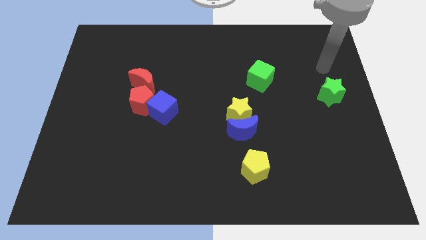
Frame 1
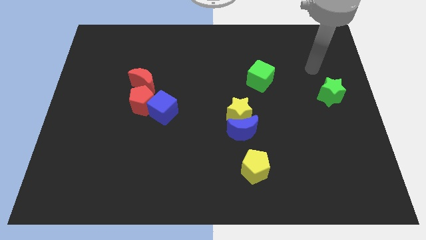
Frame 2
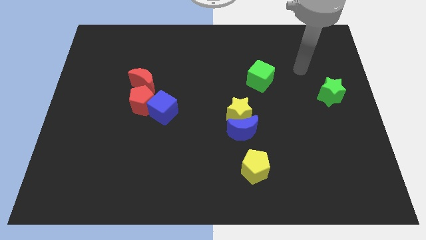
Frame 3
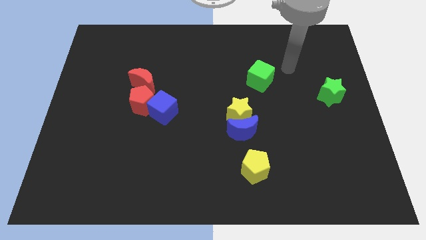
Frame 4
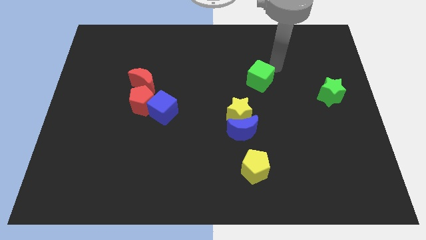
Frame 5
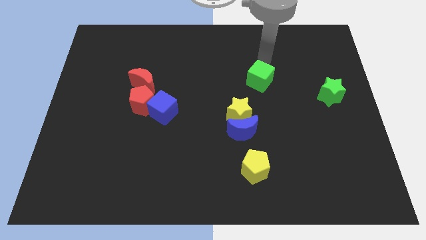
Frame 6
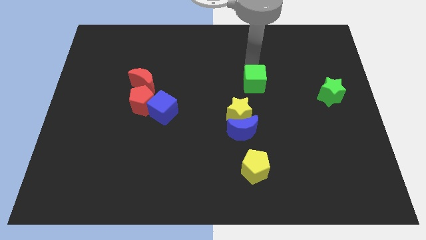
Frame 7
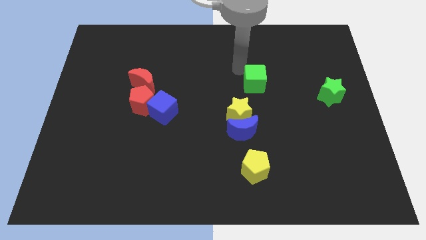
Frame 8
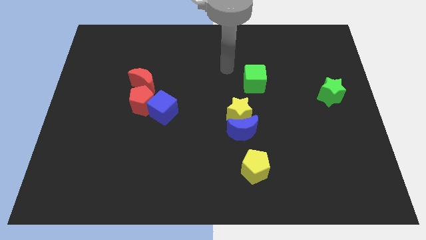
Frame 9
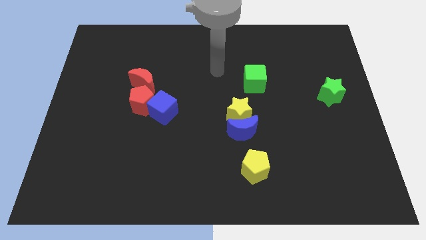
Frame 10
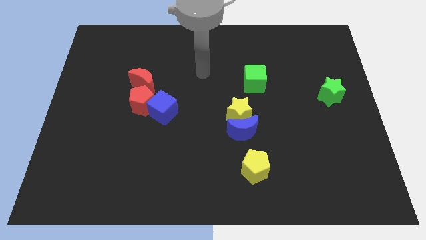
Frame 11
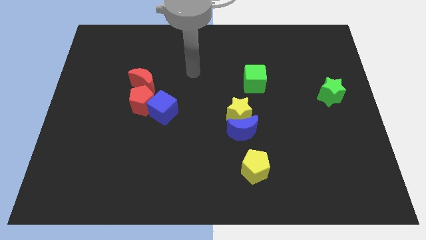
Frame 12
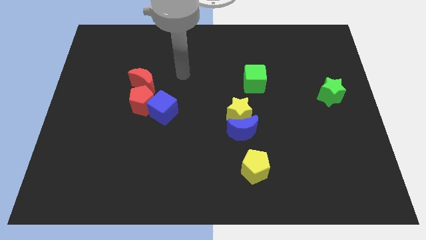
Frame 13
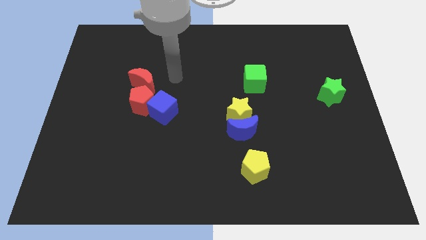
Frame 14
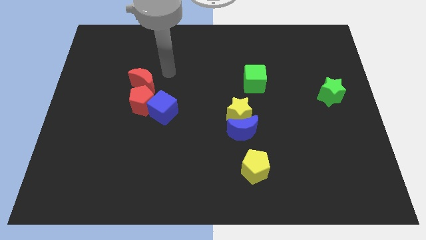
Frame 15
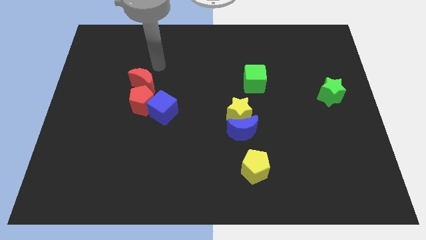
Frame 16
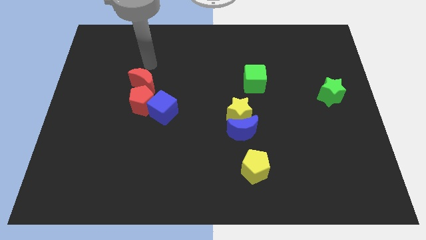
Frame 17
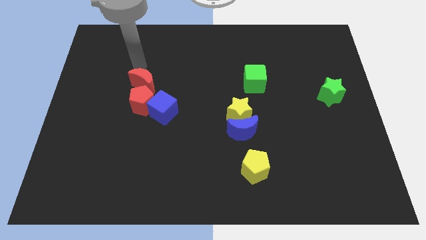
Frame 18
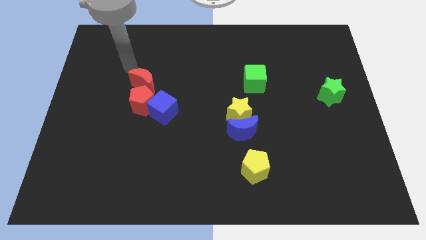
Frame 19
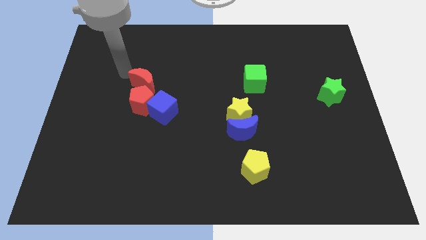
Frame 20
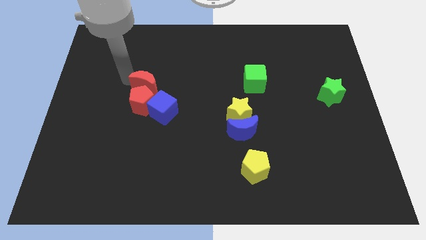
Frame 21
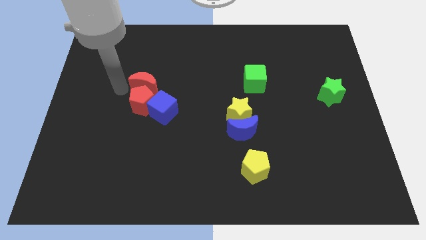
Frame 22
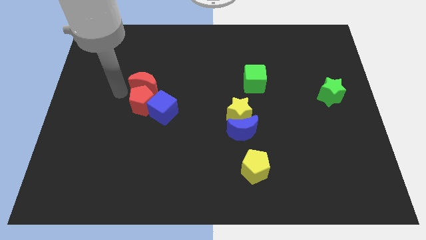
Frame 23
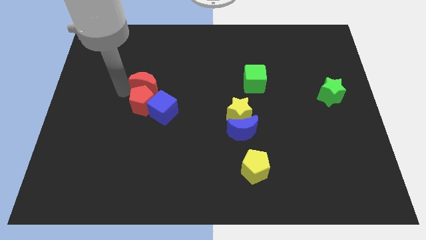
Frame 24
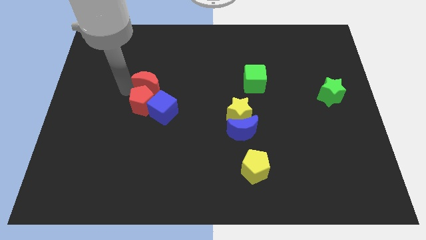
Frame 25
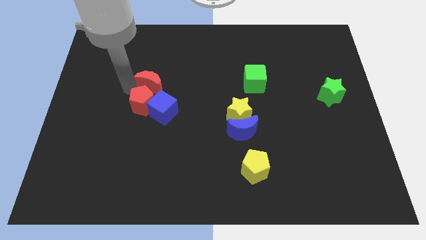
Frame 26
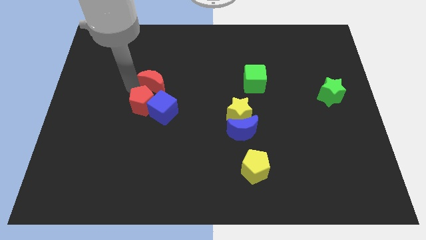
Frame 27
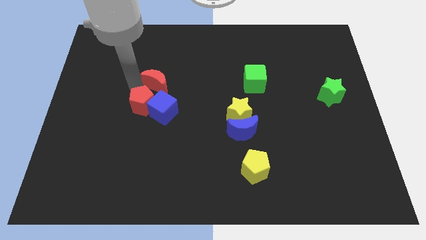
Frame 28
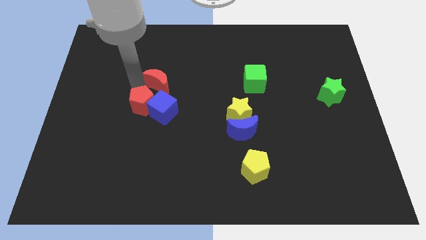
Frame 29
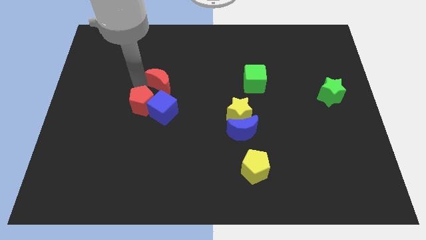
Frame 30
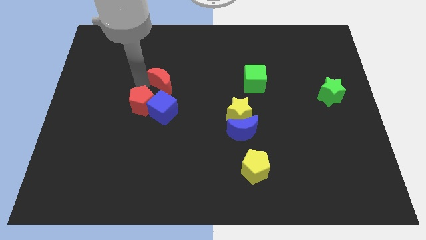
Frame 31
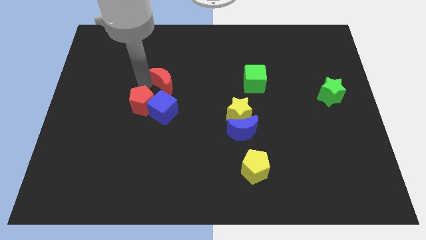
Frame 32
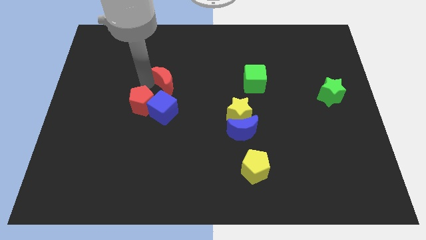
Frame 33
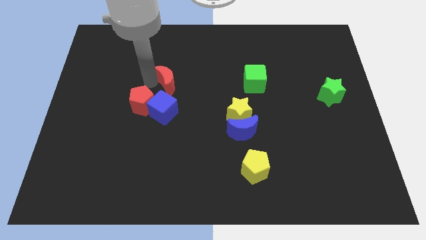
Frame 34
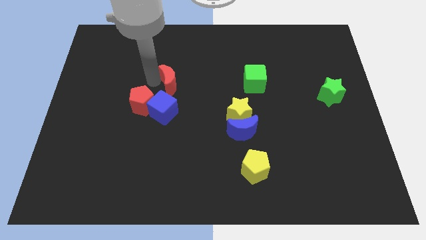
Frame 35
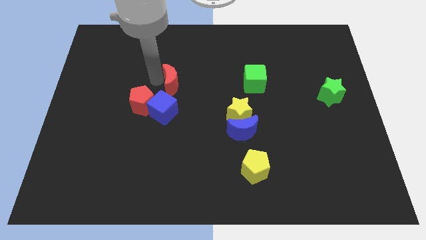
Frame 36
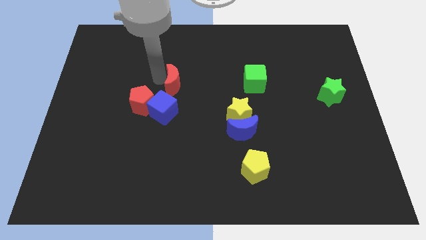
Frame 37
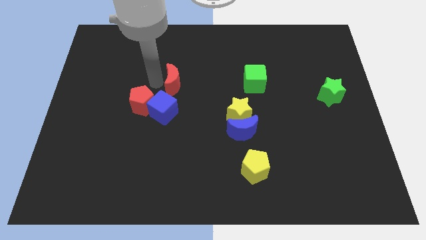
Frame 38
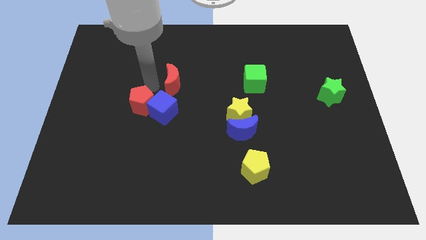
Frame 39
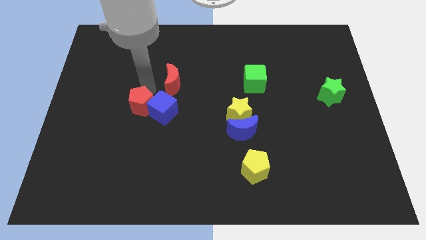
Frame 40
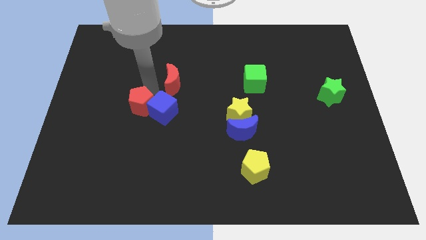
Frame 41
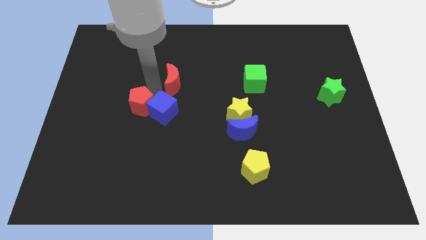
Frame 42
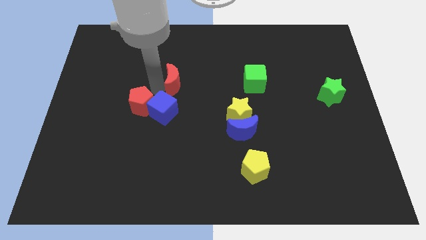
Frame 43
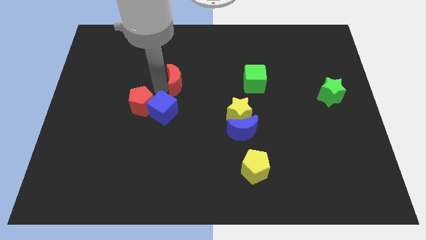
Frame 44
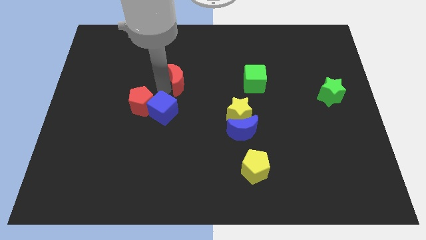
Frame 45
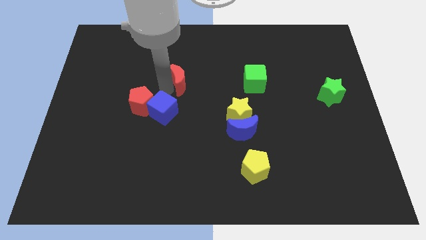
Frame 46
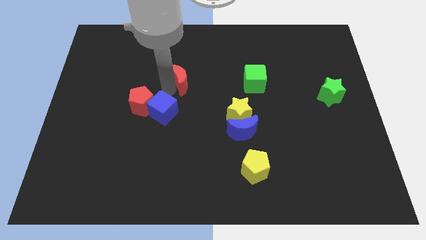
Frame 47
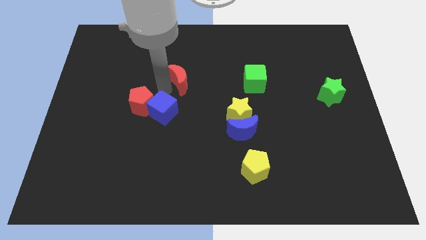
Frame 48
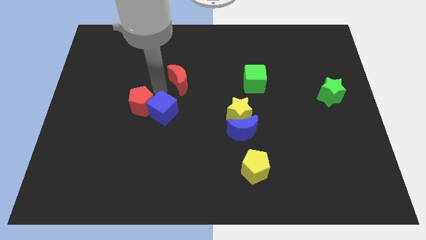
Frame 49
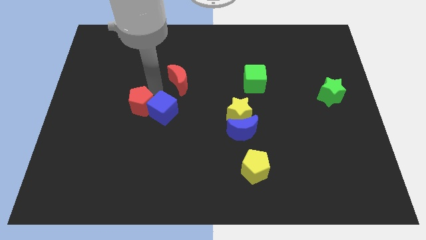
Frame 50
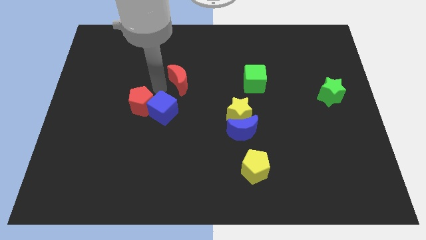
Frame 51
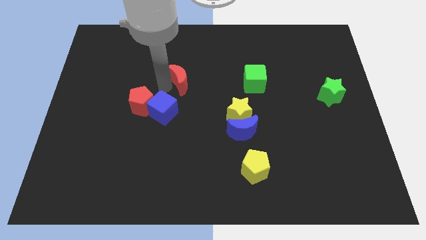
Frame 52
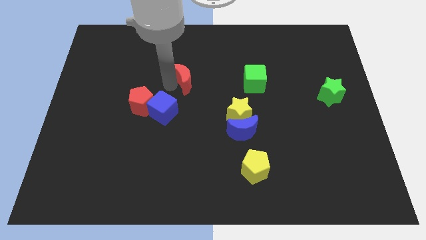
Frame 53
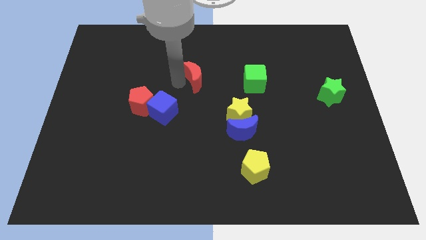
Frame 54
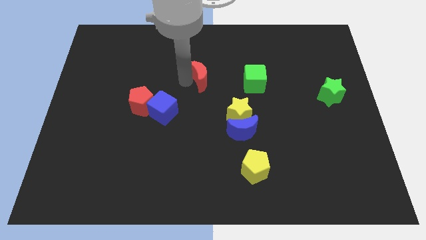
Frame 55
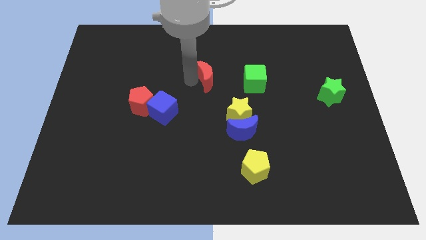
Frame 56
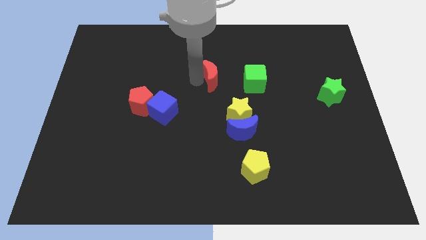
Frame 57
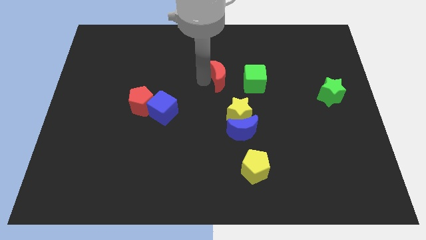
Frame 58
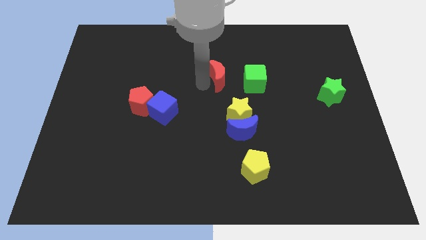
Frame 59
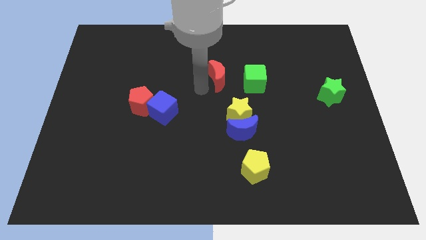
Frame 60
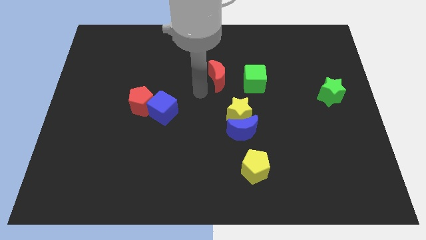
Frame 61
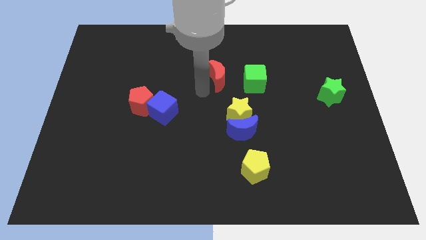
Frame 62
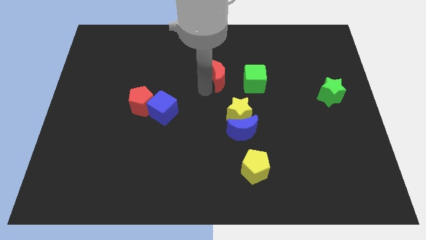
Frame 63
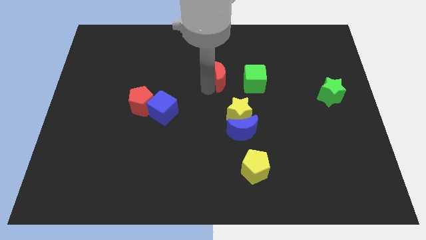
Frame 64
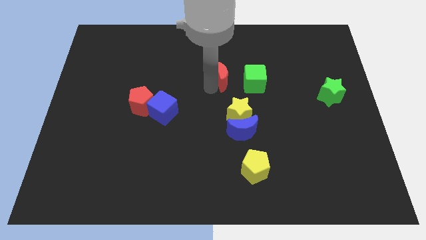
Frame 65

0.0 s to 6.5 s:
push the red moon to the top left side of the green cube

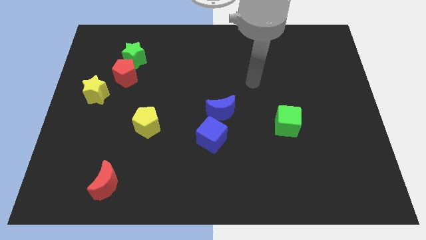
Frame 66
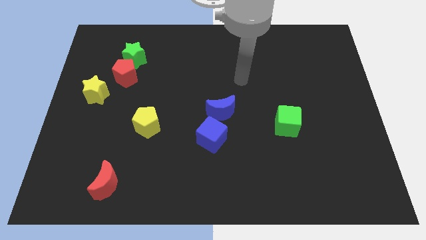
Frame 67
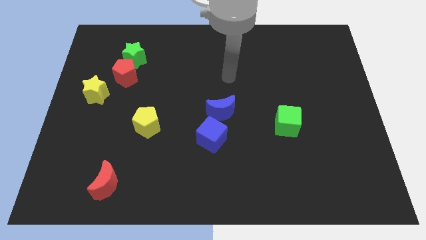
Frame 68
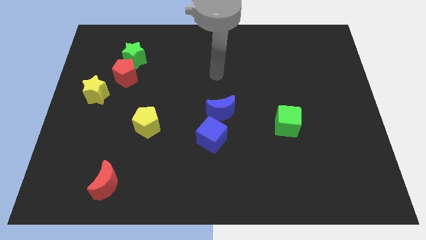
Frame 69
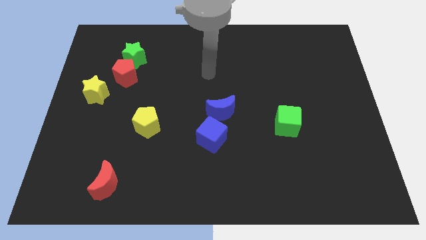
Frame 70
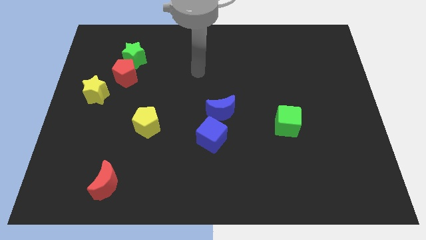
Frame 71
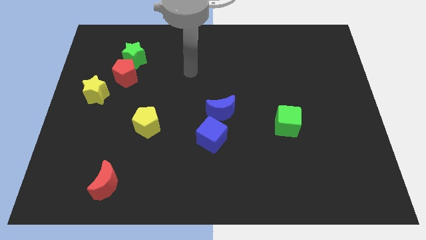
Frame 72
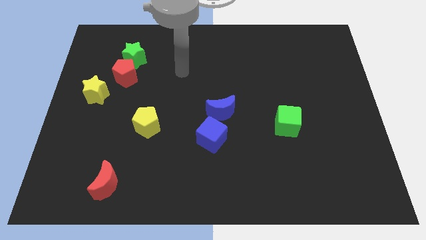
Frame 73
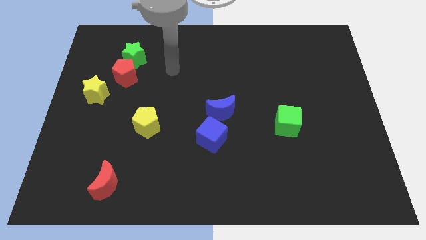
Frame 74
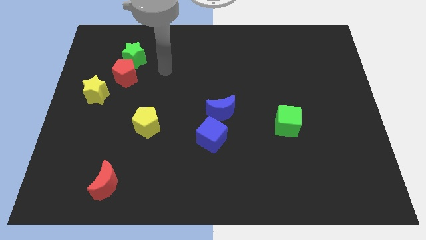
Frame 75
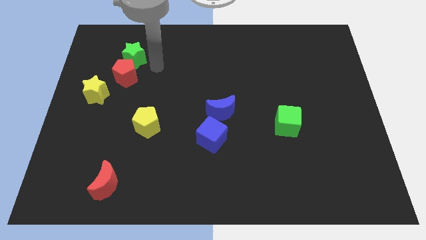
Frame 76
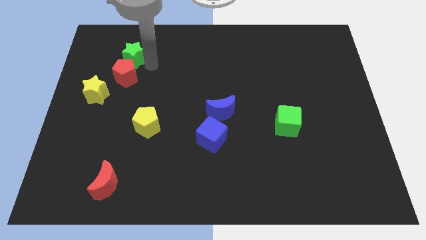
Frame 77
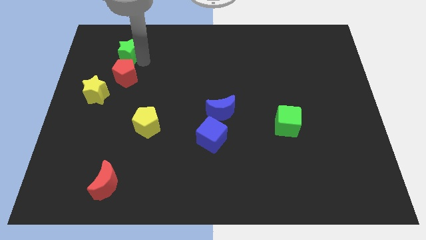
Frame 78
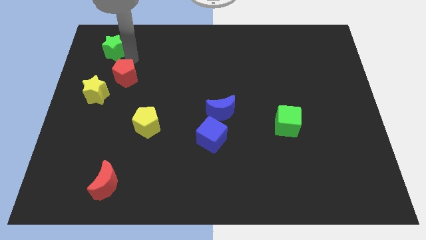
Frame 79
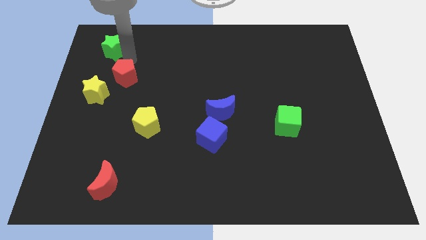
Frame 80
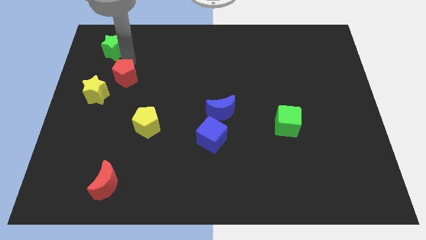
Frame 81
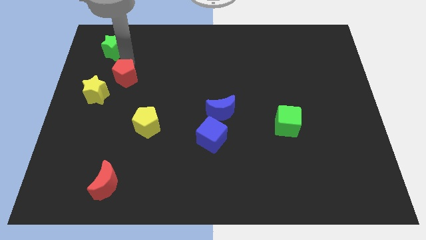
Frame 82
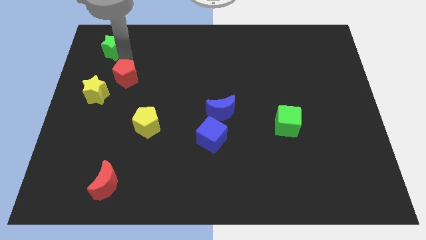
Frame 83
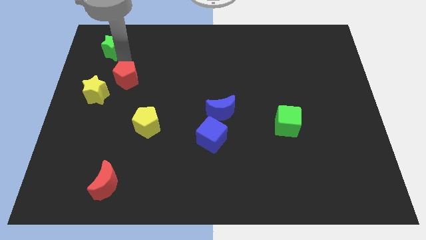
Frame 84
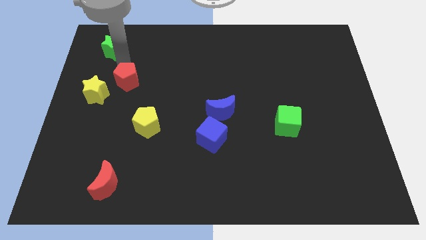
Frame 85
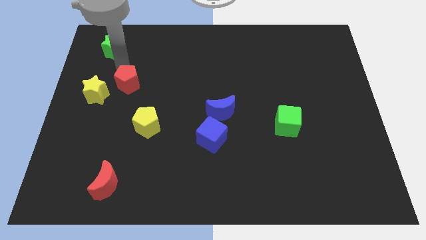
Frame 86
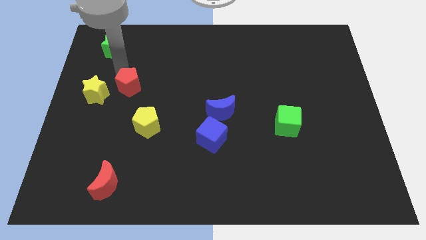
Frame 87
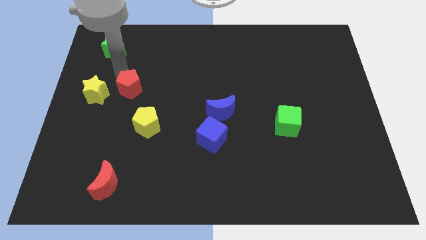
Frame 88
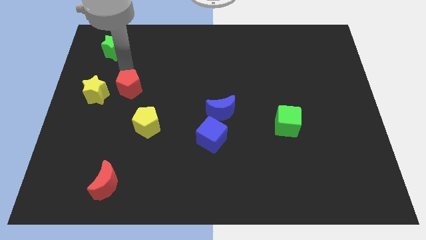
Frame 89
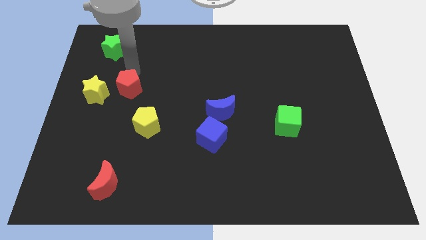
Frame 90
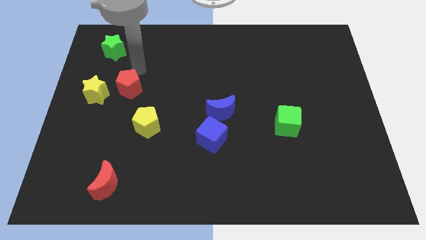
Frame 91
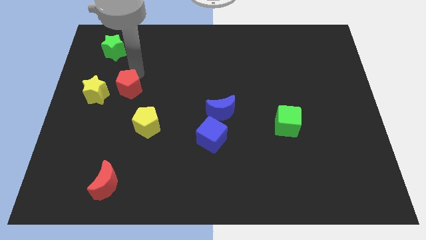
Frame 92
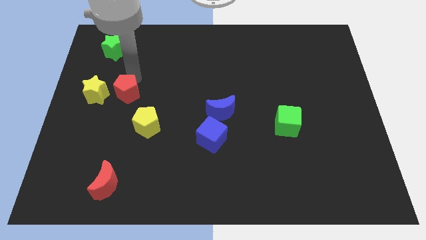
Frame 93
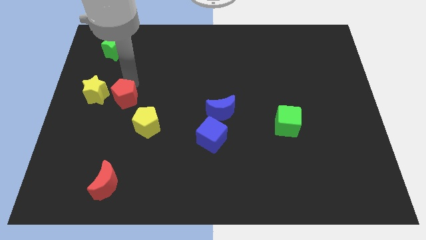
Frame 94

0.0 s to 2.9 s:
push the red pentagon diagonally down and to the right of the yellow star
